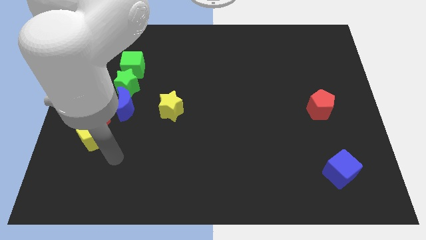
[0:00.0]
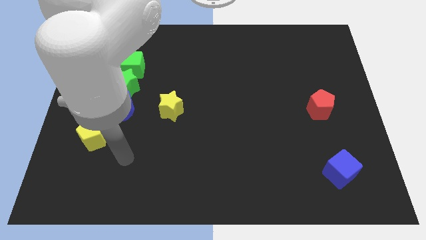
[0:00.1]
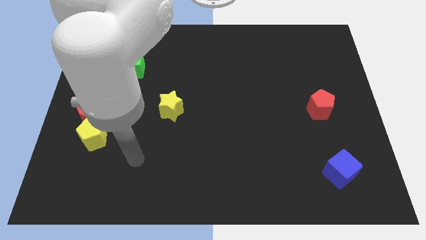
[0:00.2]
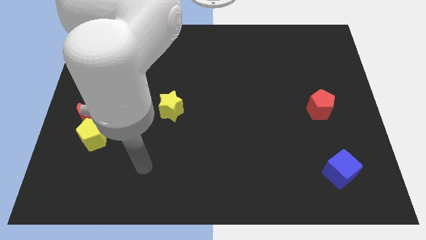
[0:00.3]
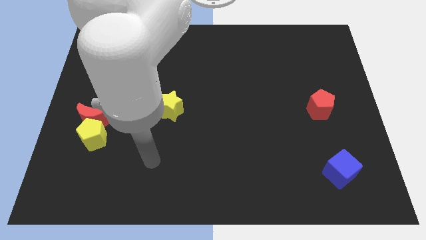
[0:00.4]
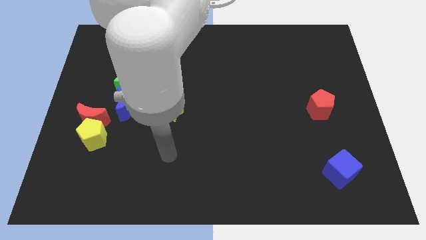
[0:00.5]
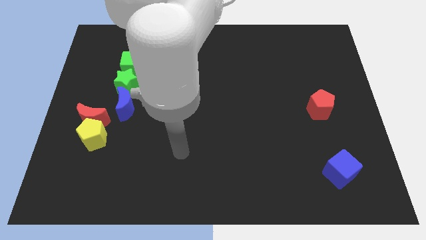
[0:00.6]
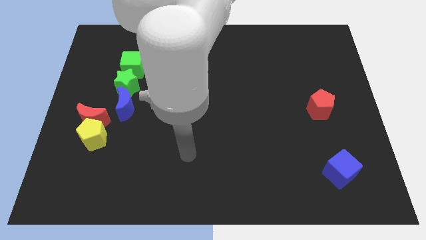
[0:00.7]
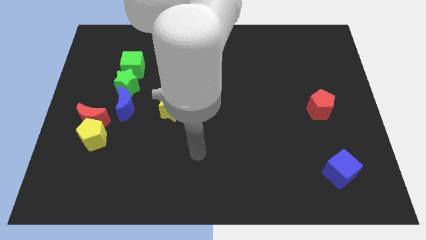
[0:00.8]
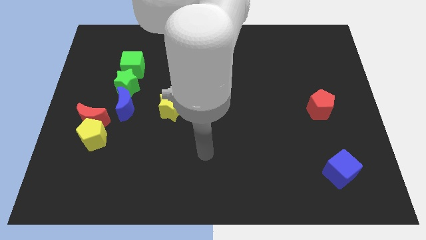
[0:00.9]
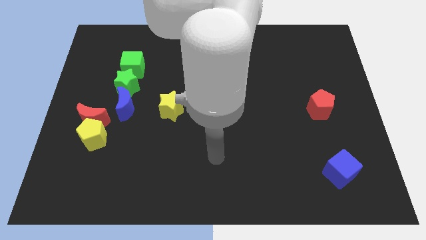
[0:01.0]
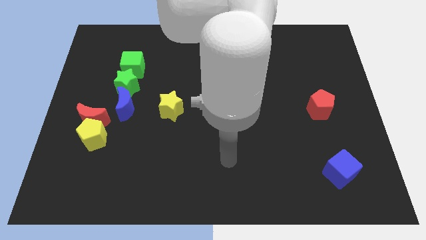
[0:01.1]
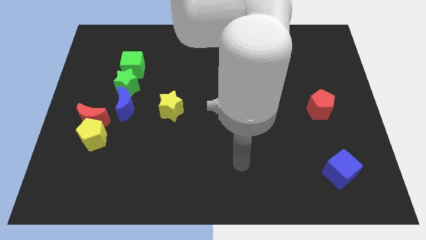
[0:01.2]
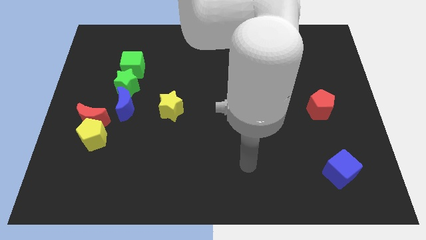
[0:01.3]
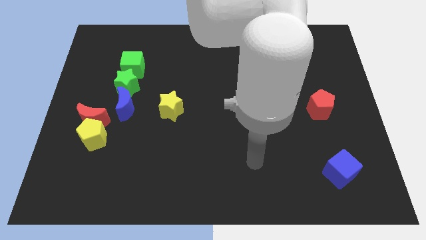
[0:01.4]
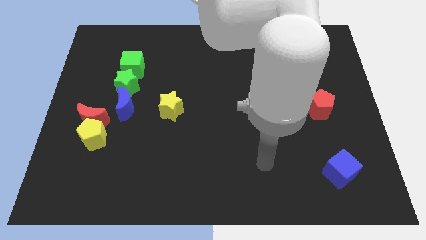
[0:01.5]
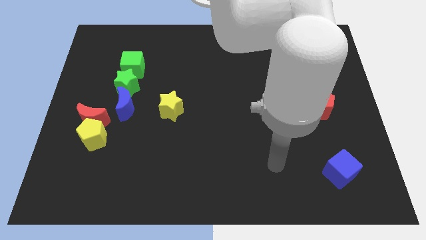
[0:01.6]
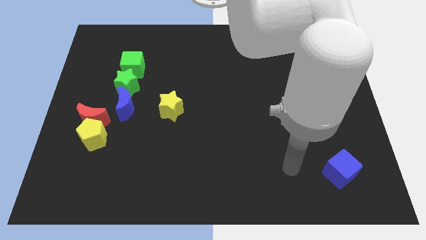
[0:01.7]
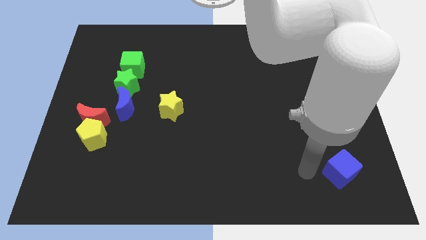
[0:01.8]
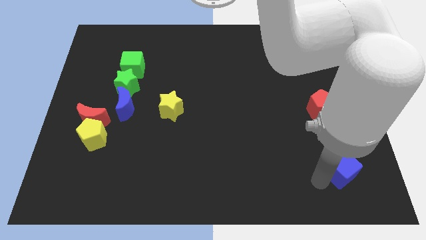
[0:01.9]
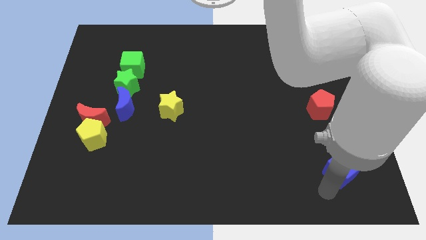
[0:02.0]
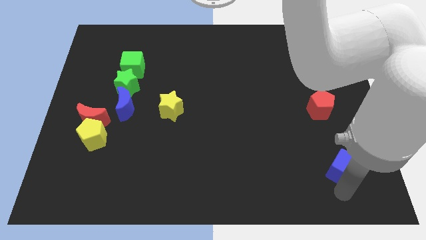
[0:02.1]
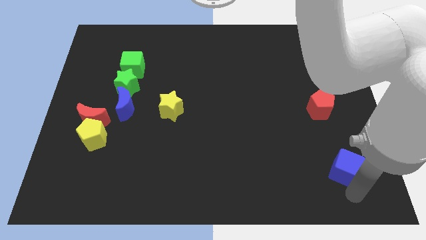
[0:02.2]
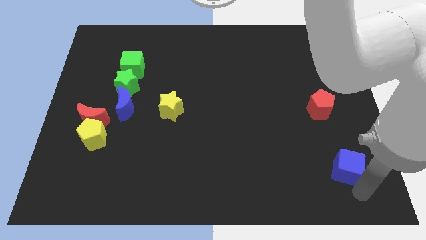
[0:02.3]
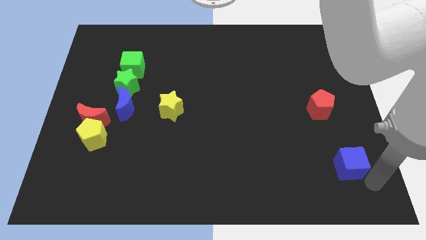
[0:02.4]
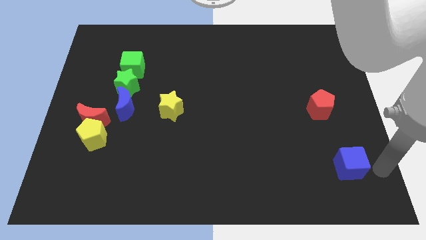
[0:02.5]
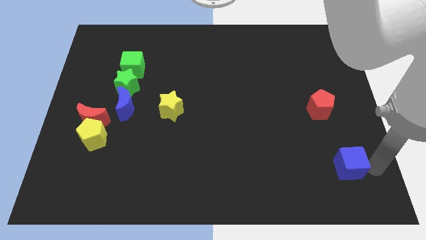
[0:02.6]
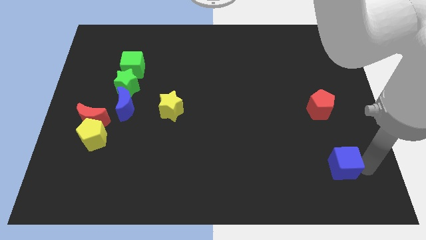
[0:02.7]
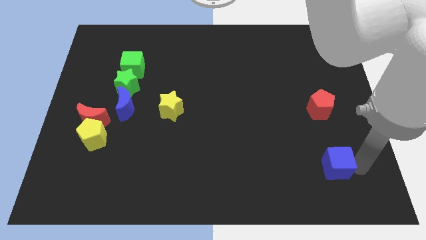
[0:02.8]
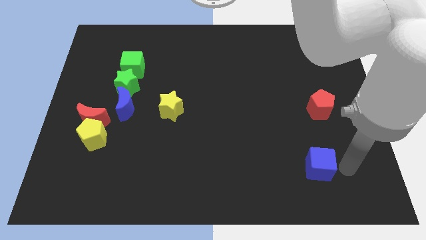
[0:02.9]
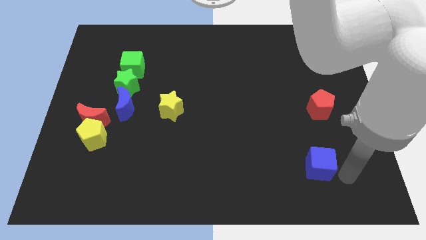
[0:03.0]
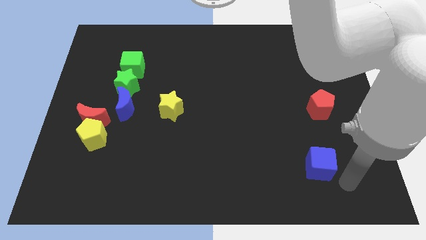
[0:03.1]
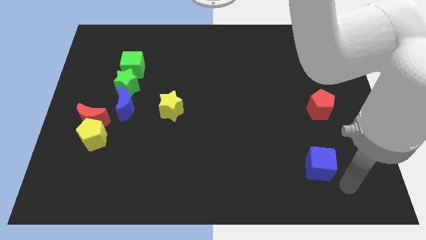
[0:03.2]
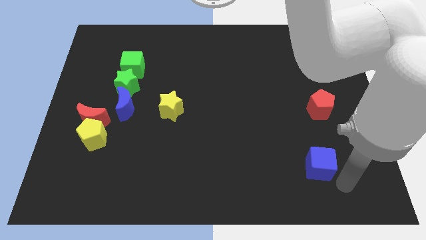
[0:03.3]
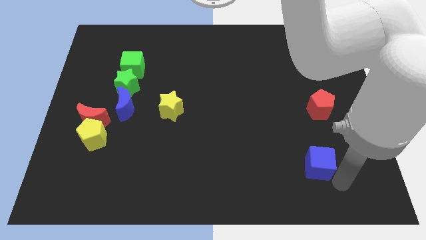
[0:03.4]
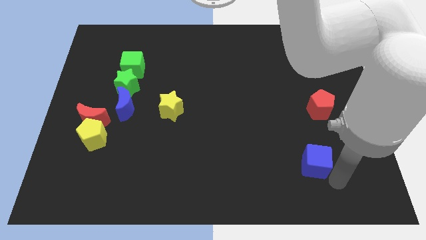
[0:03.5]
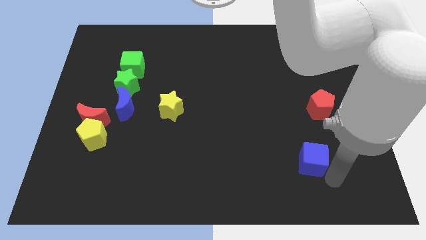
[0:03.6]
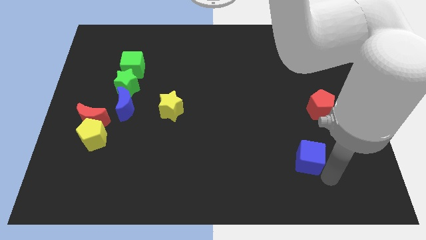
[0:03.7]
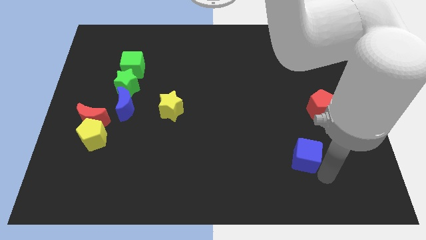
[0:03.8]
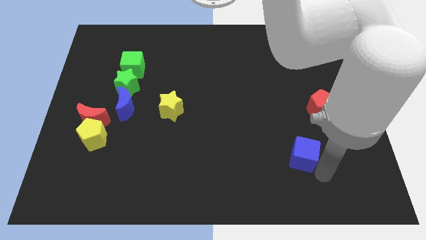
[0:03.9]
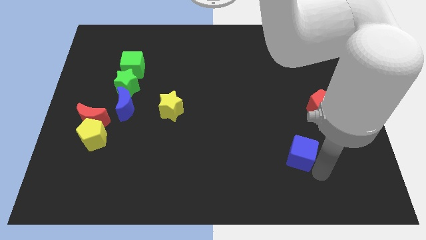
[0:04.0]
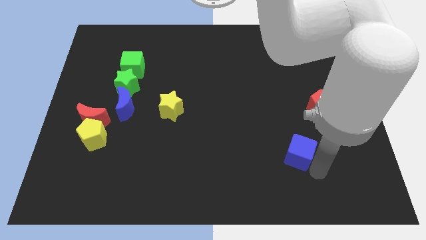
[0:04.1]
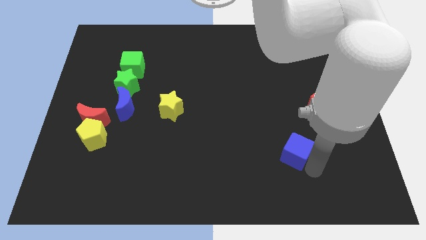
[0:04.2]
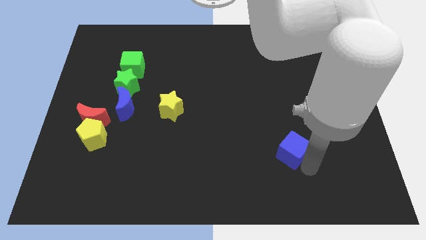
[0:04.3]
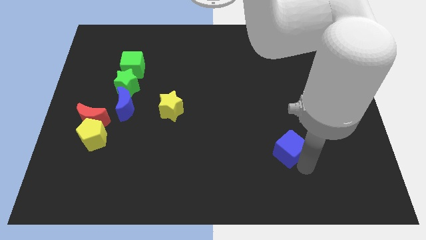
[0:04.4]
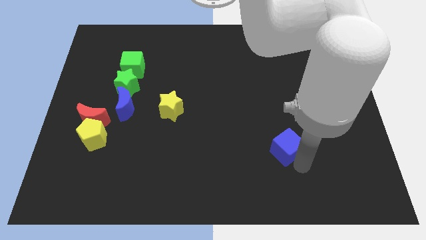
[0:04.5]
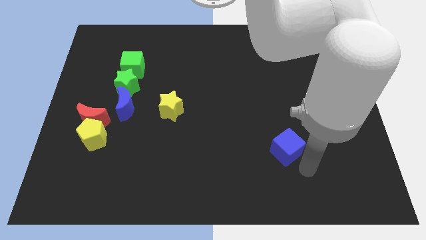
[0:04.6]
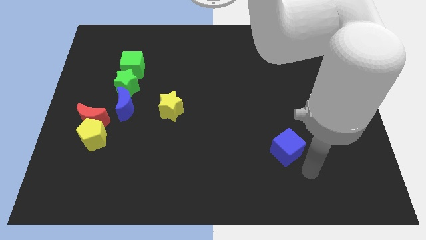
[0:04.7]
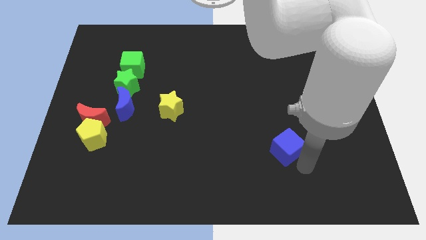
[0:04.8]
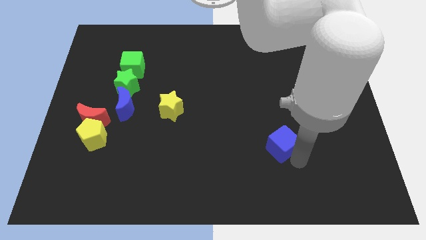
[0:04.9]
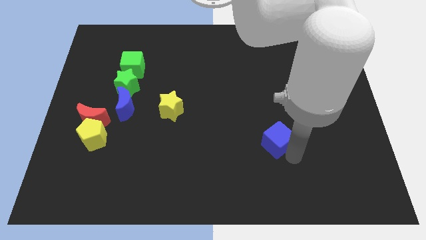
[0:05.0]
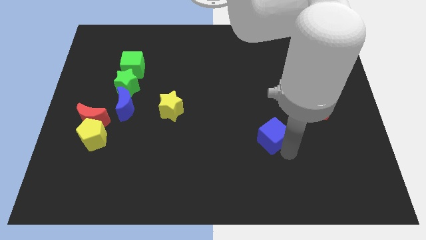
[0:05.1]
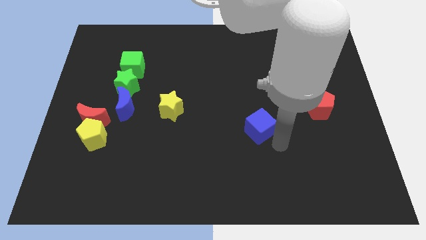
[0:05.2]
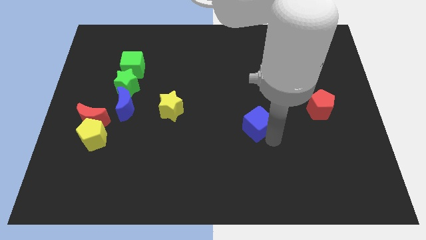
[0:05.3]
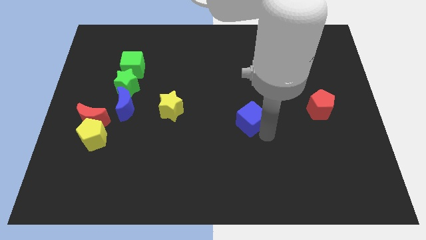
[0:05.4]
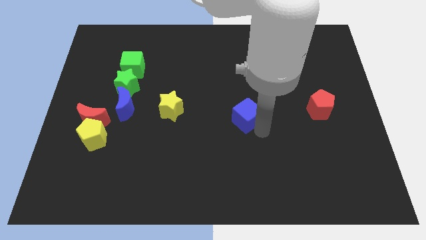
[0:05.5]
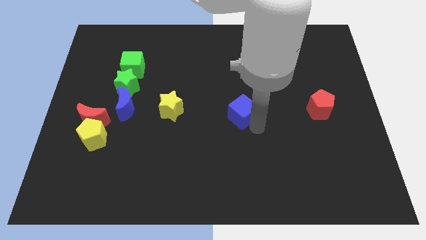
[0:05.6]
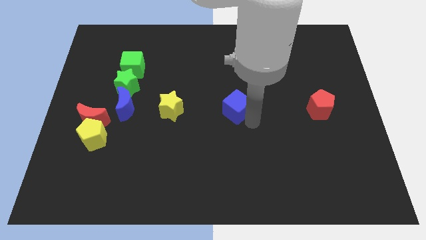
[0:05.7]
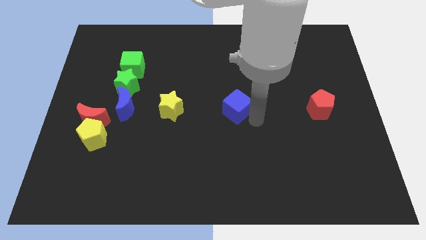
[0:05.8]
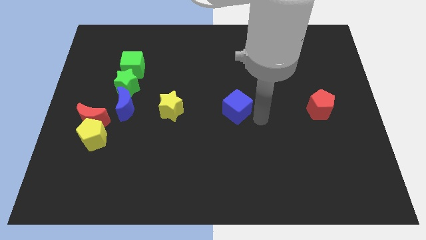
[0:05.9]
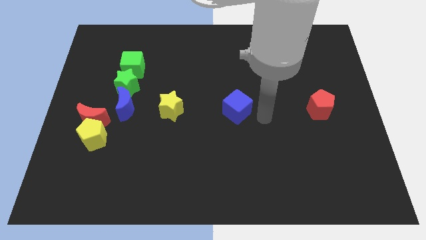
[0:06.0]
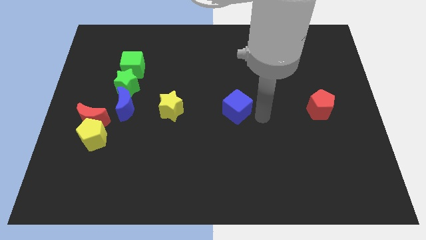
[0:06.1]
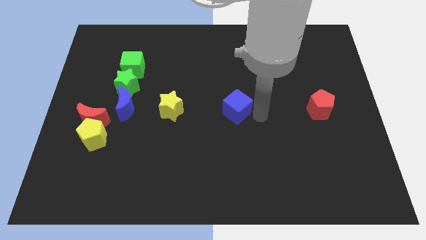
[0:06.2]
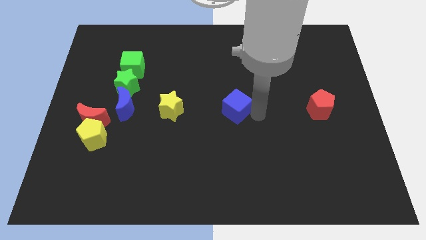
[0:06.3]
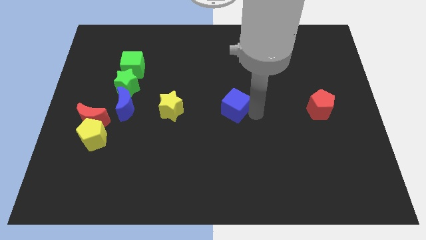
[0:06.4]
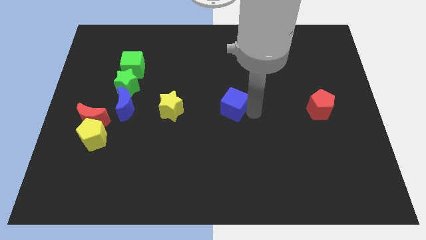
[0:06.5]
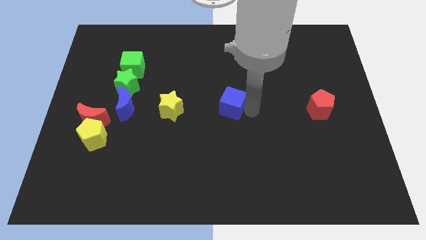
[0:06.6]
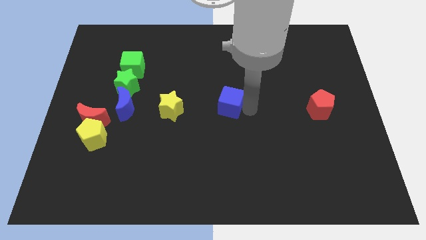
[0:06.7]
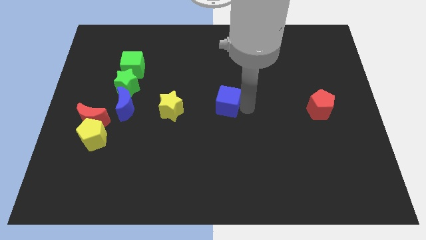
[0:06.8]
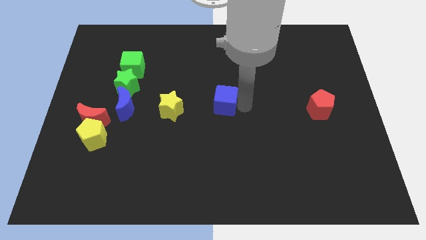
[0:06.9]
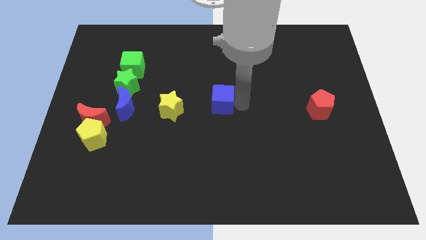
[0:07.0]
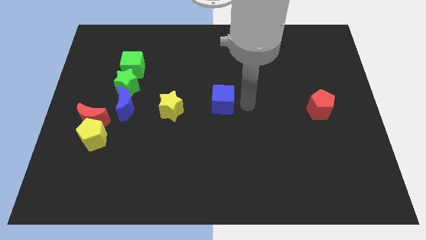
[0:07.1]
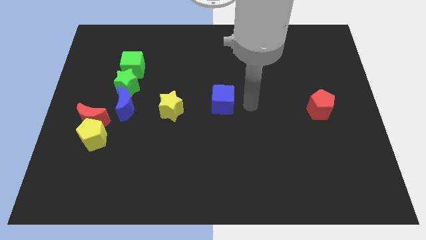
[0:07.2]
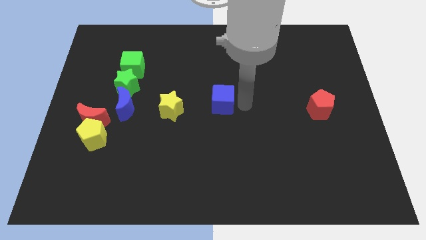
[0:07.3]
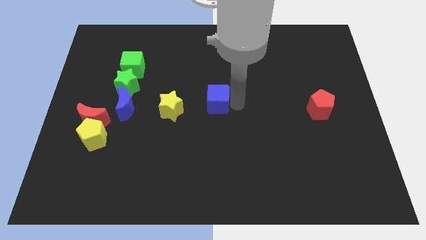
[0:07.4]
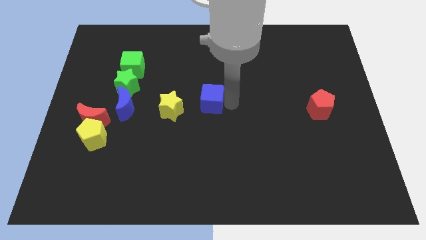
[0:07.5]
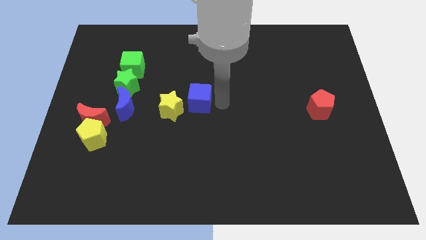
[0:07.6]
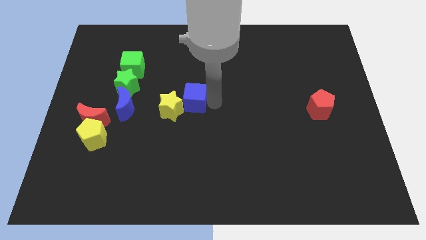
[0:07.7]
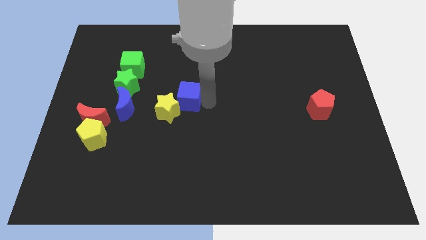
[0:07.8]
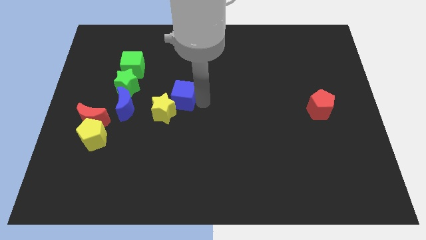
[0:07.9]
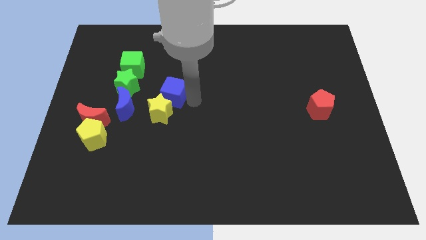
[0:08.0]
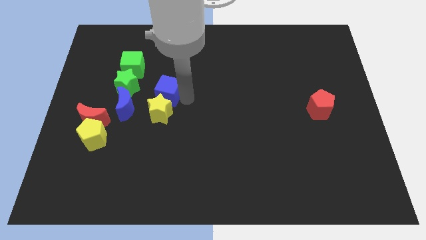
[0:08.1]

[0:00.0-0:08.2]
move the blue cube to the top right side of the blue moon
